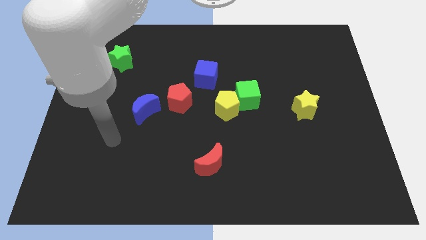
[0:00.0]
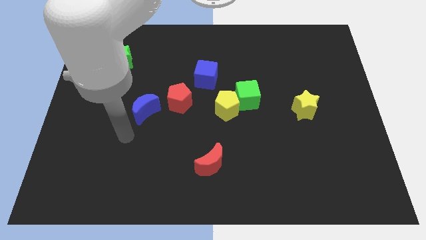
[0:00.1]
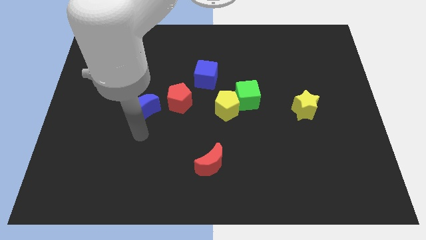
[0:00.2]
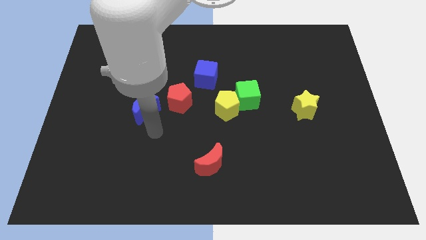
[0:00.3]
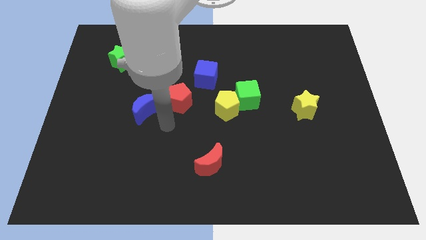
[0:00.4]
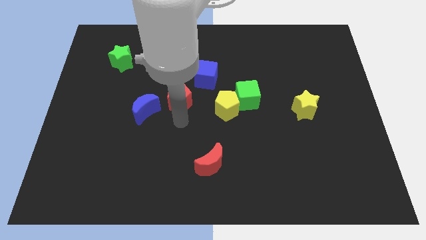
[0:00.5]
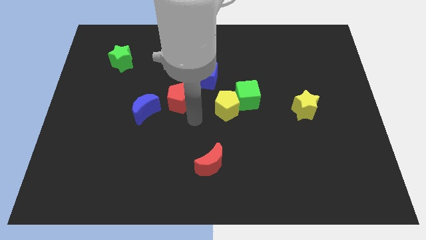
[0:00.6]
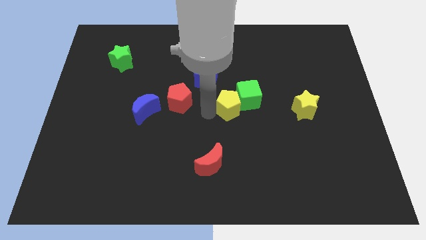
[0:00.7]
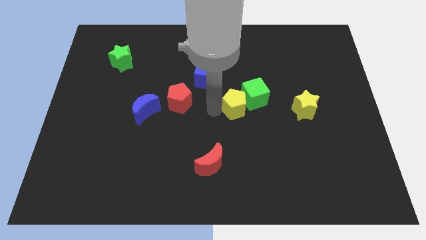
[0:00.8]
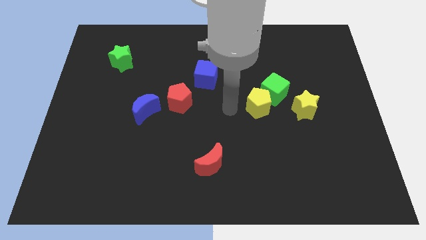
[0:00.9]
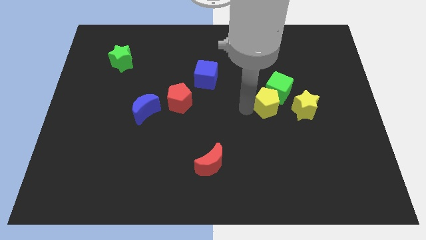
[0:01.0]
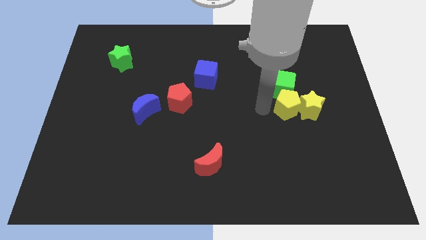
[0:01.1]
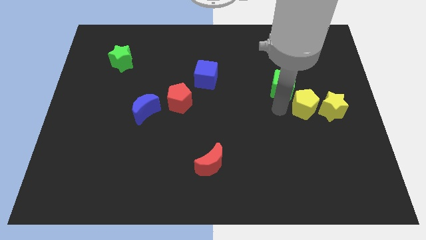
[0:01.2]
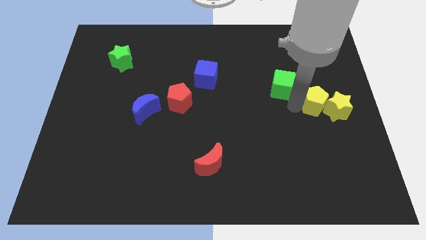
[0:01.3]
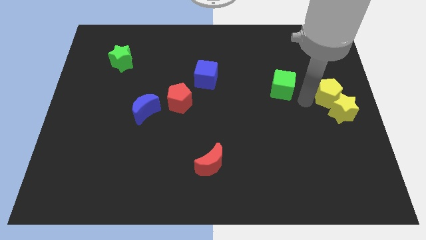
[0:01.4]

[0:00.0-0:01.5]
separate the green cube from the yellow pentagon

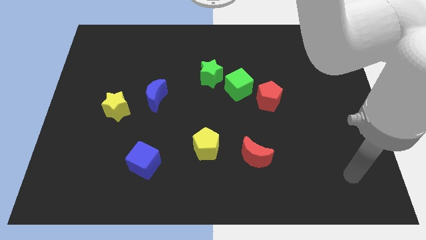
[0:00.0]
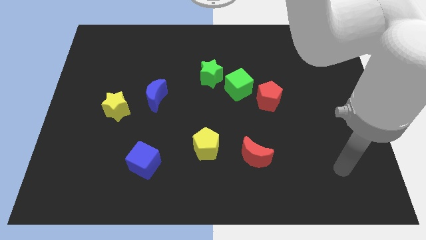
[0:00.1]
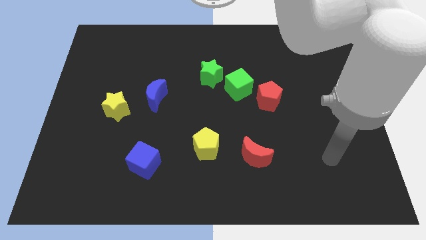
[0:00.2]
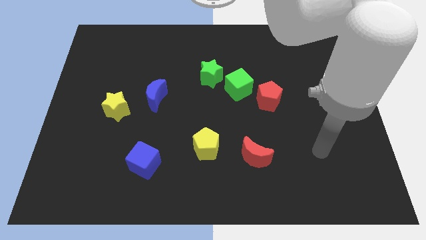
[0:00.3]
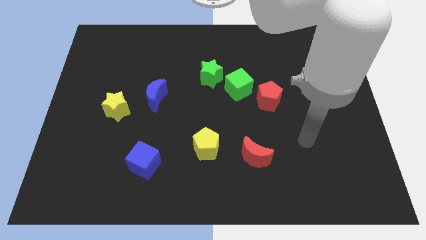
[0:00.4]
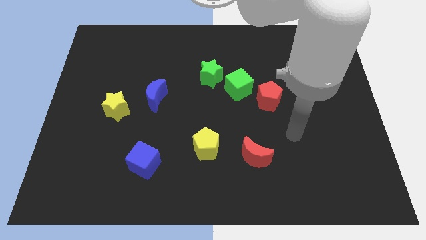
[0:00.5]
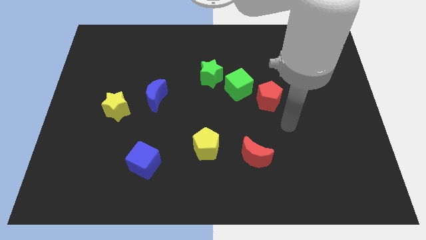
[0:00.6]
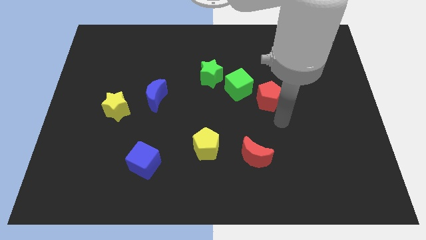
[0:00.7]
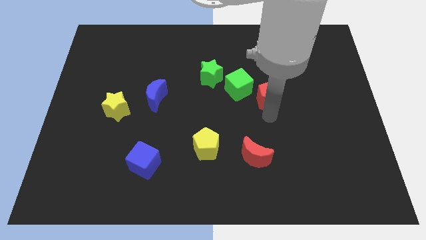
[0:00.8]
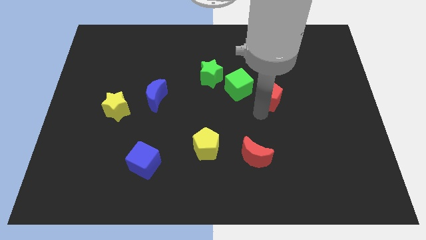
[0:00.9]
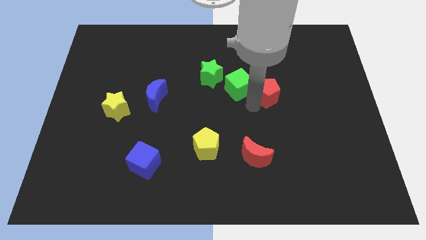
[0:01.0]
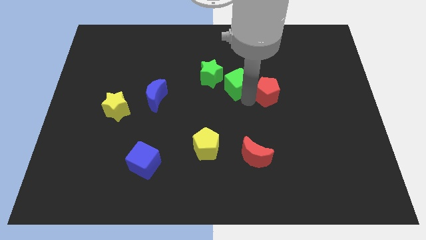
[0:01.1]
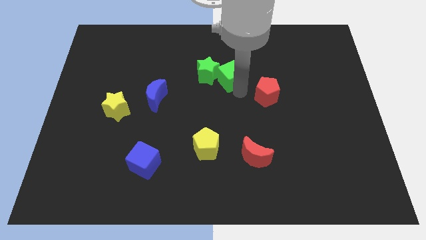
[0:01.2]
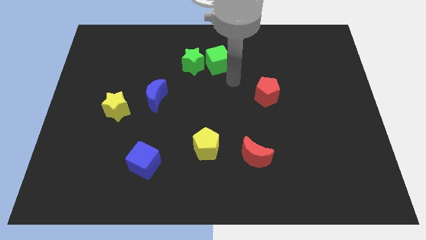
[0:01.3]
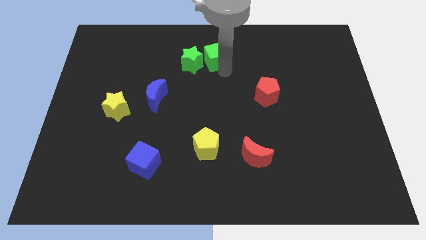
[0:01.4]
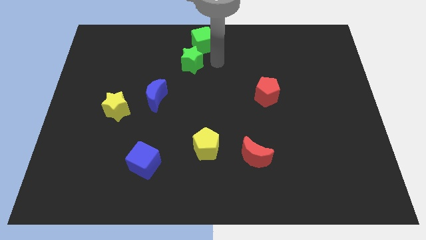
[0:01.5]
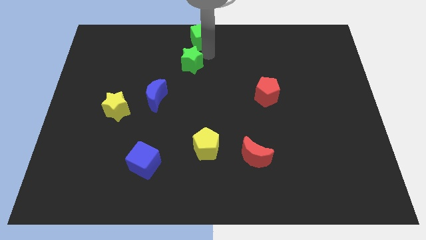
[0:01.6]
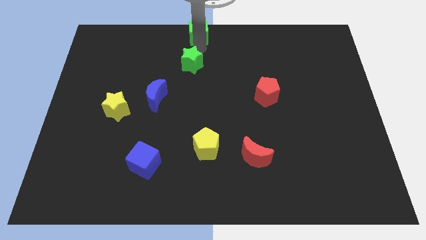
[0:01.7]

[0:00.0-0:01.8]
separate the green star from the green cube

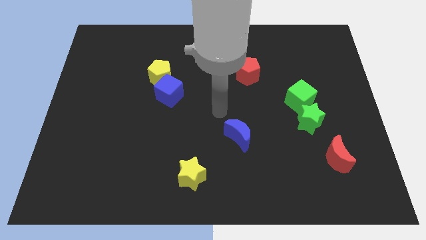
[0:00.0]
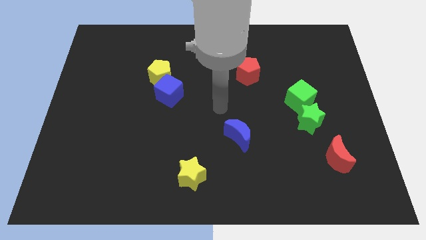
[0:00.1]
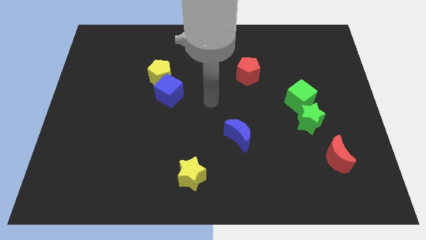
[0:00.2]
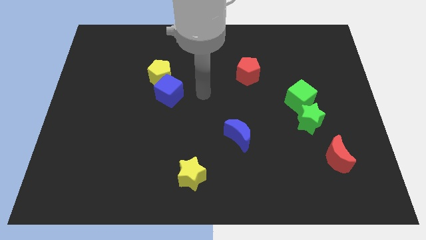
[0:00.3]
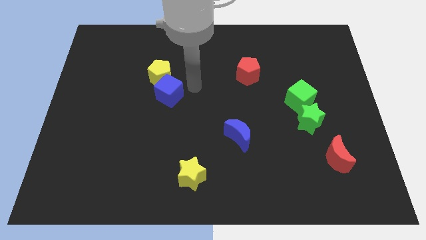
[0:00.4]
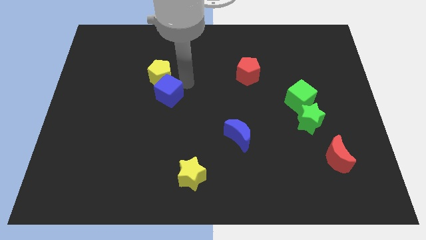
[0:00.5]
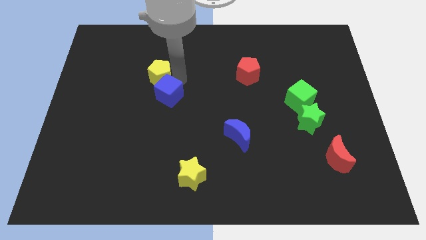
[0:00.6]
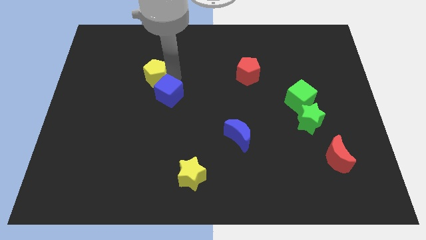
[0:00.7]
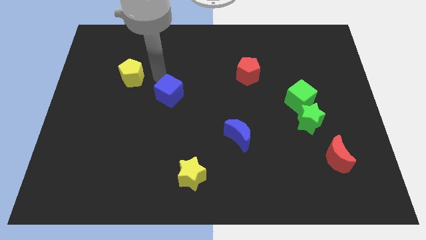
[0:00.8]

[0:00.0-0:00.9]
pull the blue cube apart from the yellow pentagon

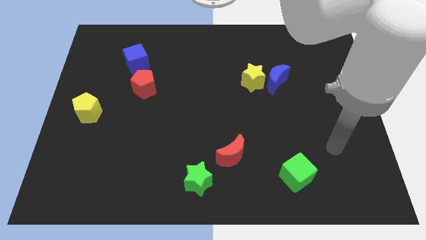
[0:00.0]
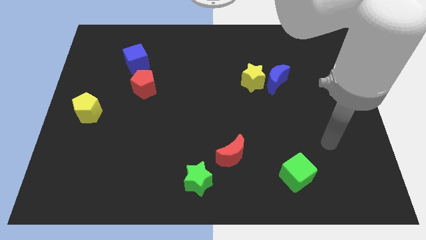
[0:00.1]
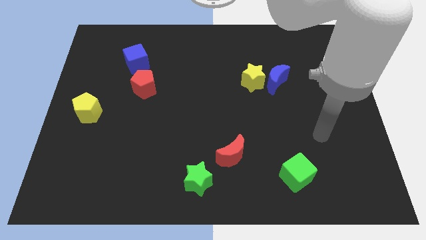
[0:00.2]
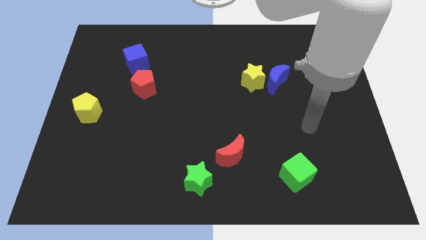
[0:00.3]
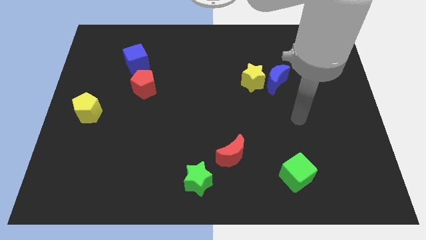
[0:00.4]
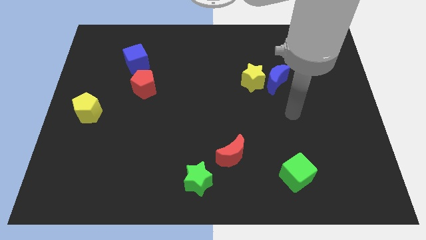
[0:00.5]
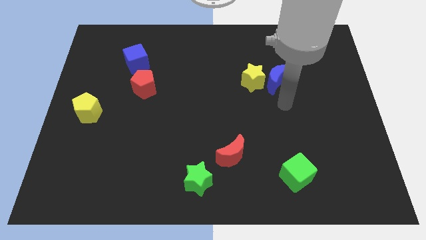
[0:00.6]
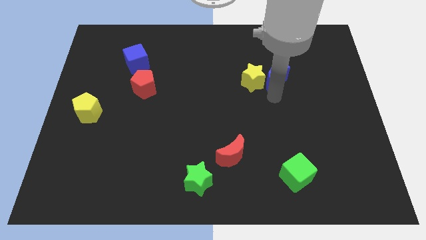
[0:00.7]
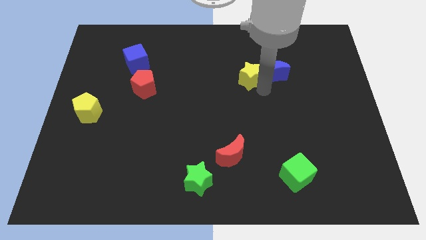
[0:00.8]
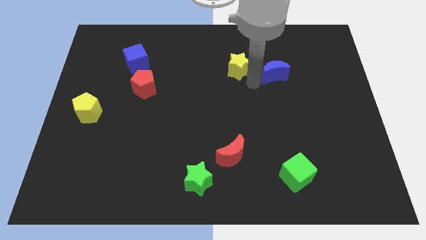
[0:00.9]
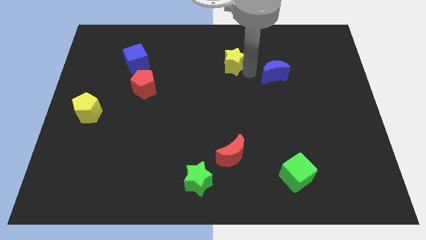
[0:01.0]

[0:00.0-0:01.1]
move the blue moon away from the yellow star

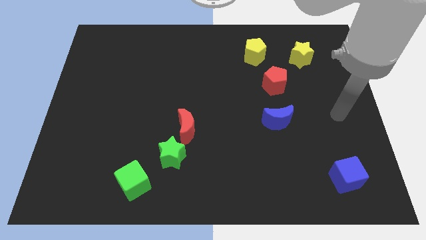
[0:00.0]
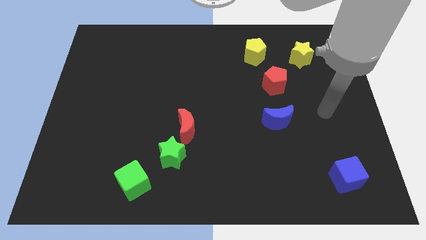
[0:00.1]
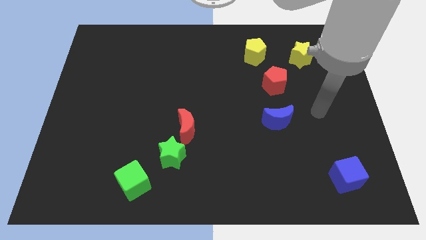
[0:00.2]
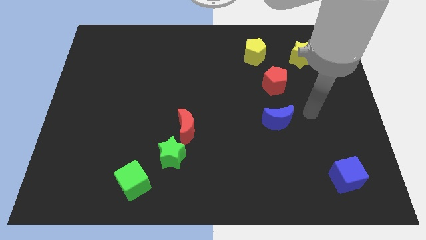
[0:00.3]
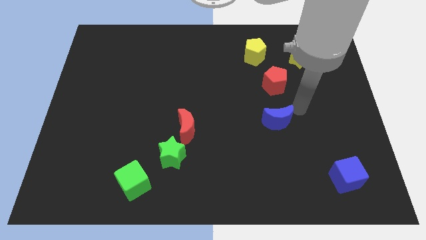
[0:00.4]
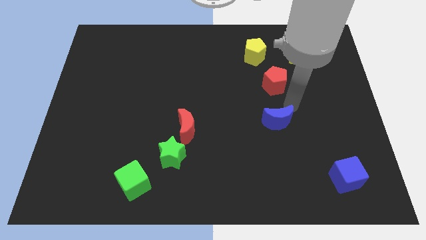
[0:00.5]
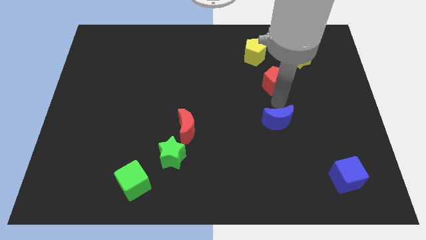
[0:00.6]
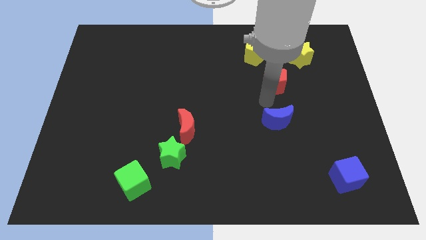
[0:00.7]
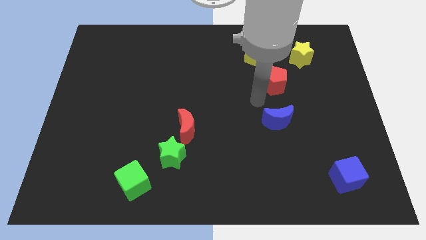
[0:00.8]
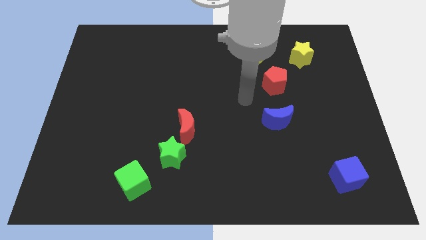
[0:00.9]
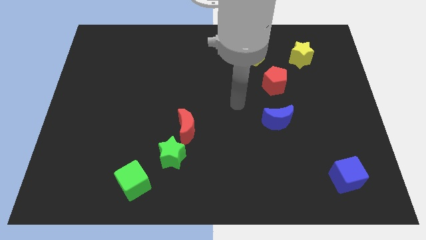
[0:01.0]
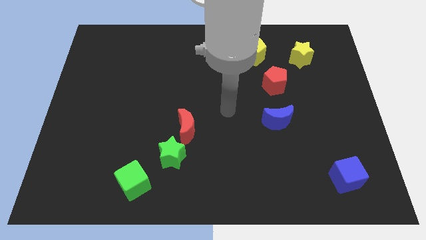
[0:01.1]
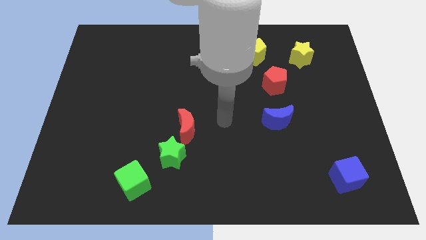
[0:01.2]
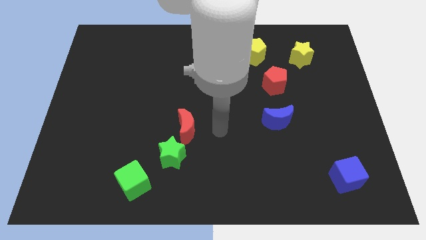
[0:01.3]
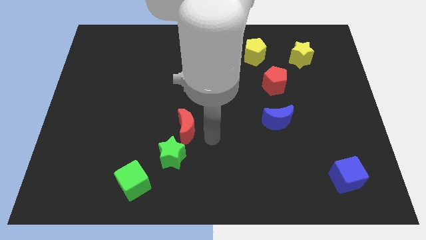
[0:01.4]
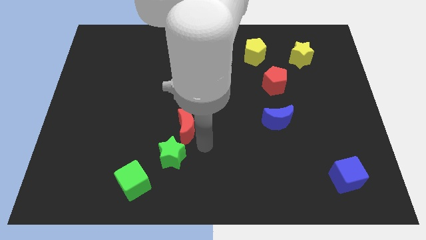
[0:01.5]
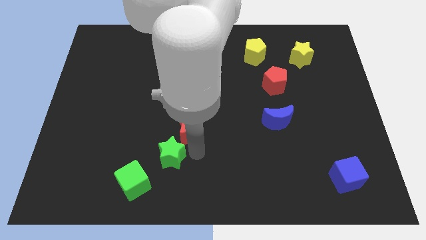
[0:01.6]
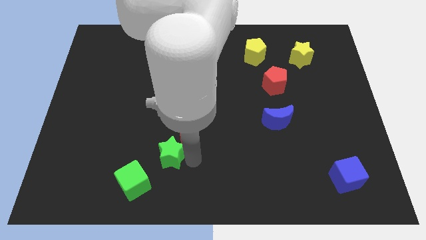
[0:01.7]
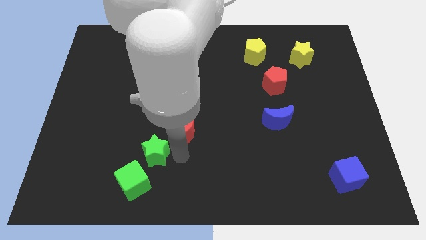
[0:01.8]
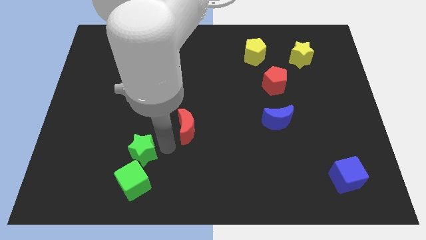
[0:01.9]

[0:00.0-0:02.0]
separate the red moon from the green star

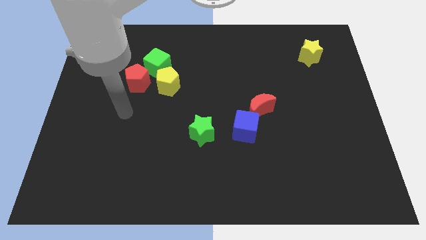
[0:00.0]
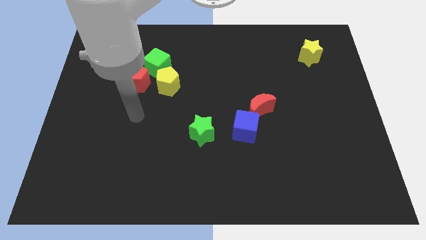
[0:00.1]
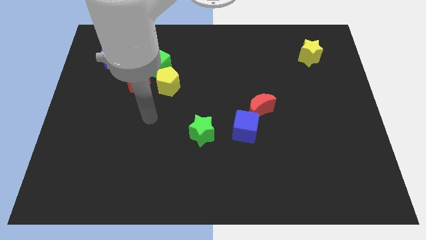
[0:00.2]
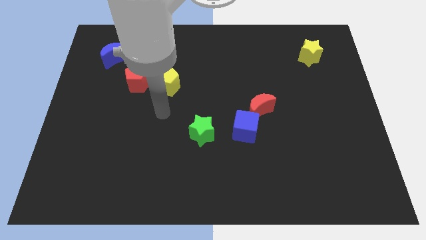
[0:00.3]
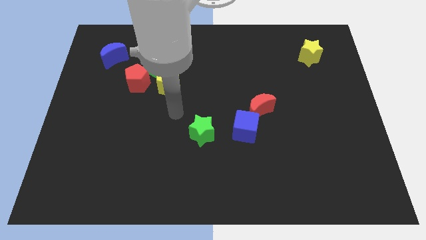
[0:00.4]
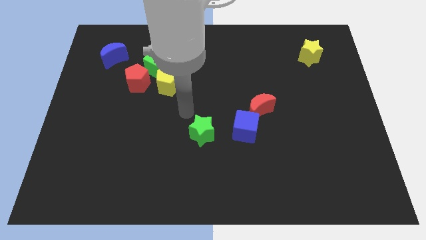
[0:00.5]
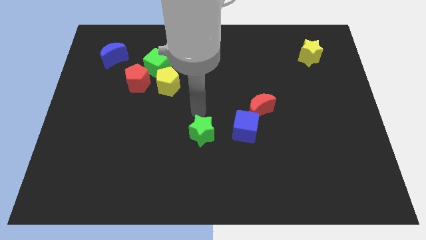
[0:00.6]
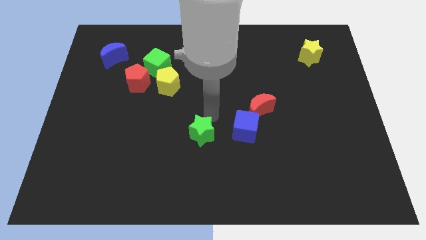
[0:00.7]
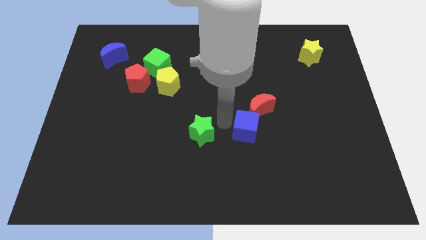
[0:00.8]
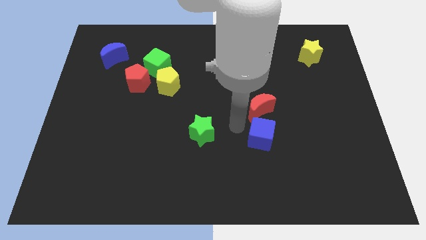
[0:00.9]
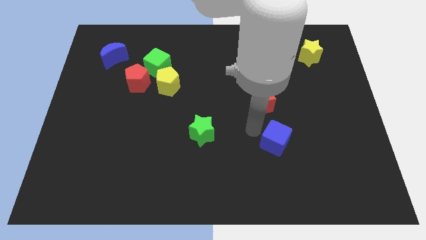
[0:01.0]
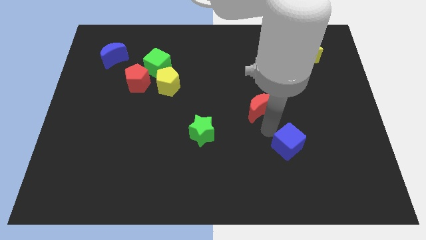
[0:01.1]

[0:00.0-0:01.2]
separate the red moon from the blue cube

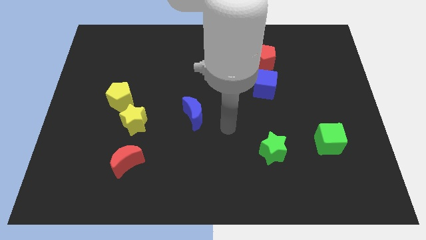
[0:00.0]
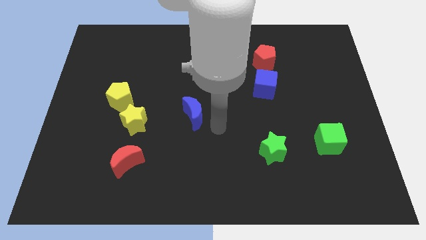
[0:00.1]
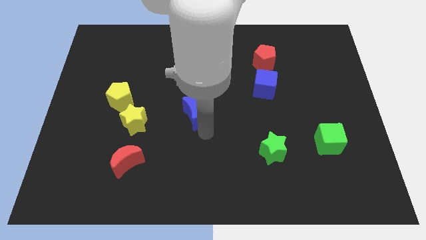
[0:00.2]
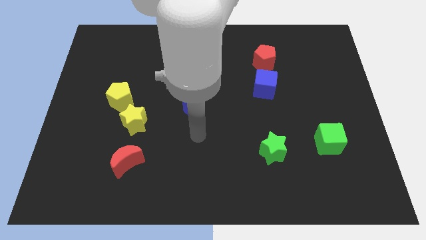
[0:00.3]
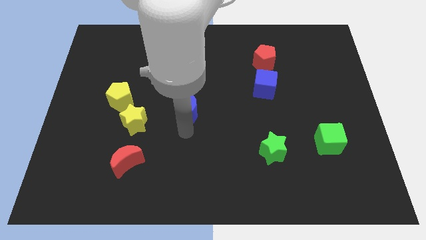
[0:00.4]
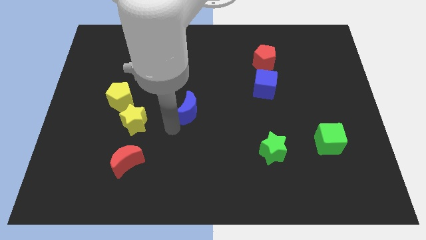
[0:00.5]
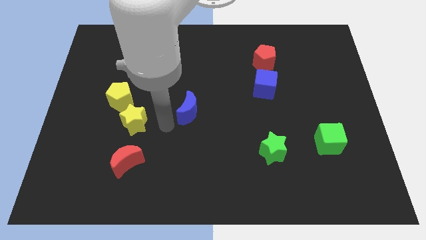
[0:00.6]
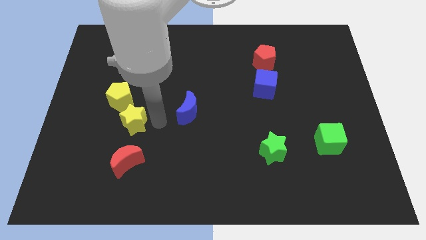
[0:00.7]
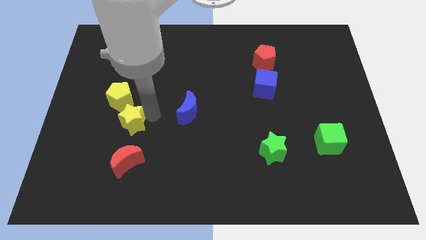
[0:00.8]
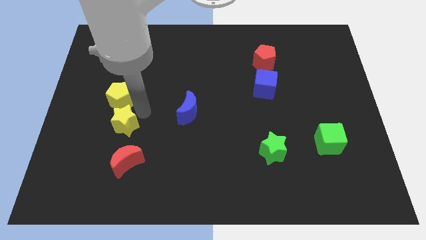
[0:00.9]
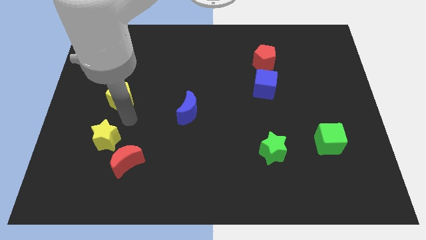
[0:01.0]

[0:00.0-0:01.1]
separate the yellow pentagon from the yellow star
